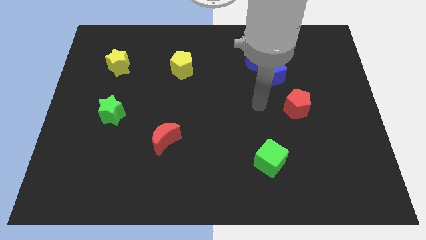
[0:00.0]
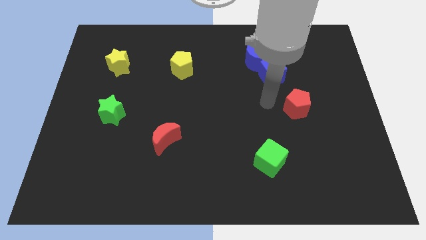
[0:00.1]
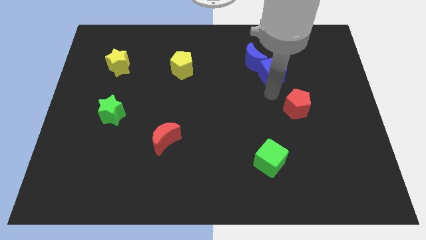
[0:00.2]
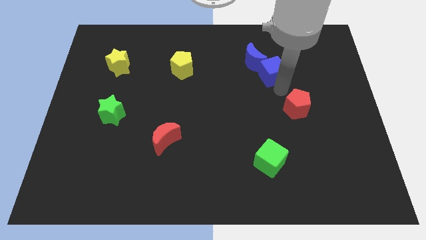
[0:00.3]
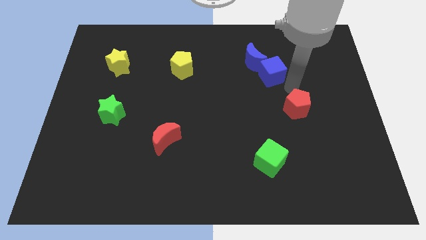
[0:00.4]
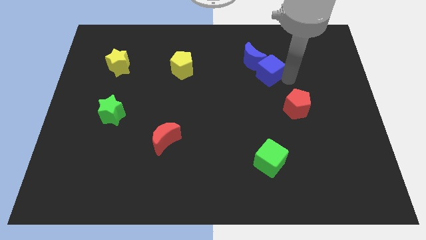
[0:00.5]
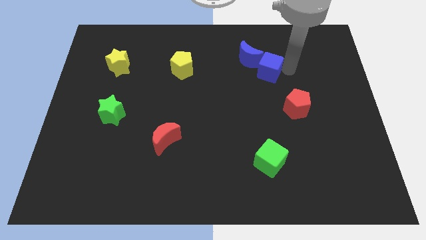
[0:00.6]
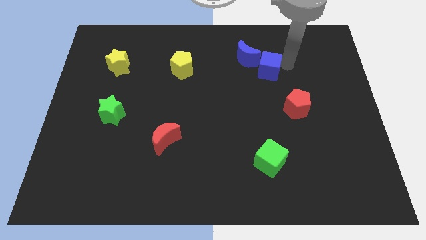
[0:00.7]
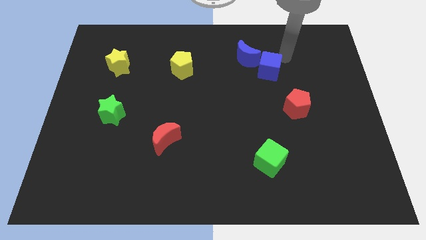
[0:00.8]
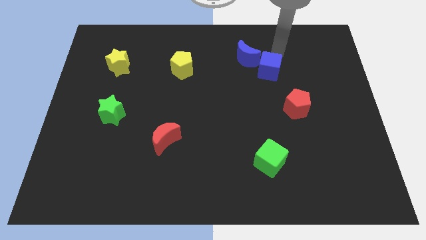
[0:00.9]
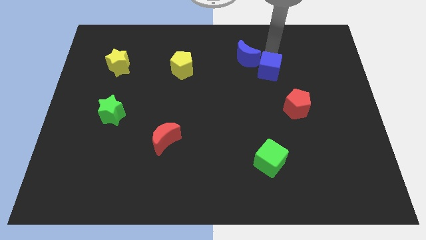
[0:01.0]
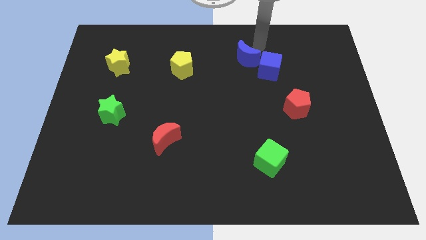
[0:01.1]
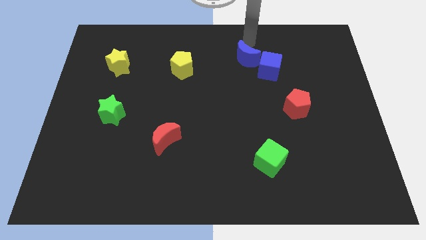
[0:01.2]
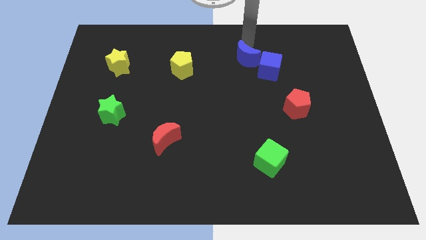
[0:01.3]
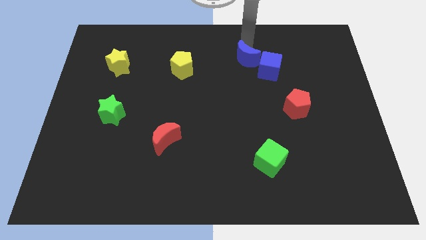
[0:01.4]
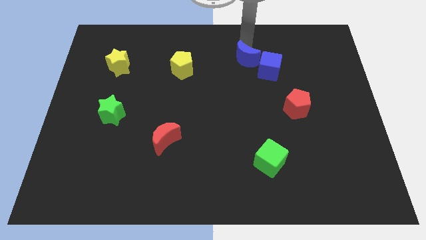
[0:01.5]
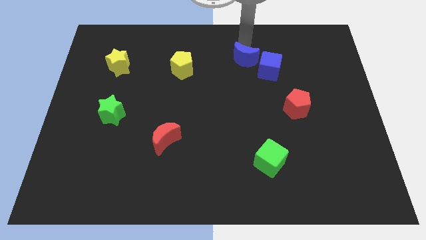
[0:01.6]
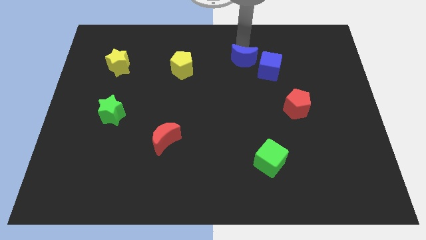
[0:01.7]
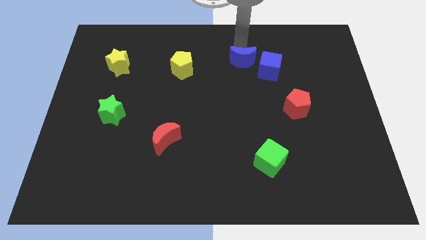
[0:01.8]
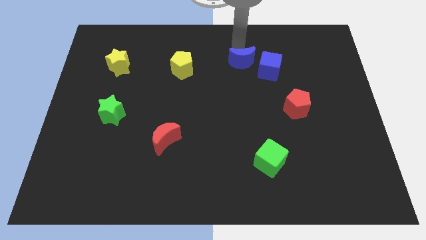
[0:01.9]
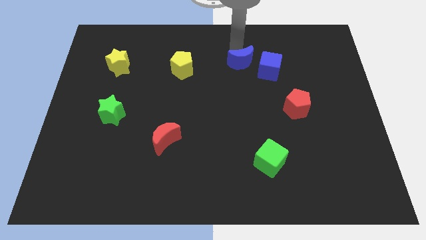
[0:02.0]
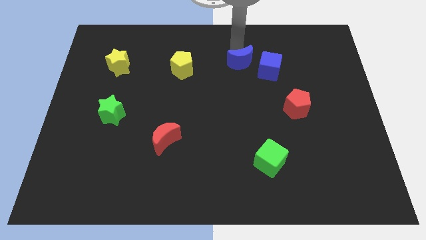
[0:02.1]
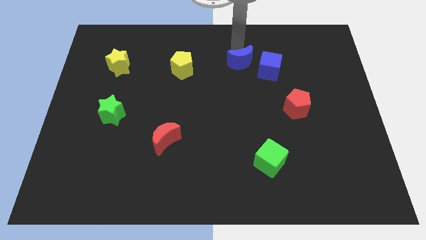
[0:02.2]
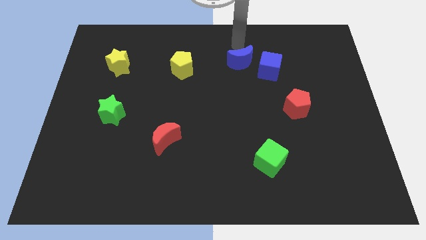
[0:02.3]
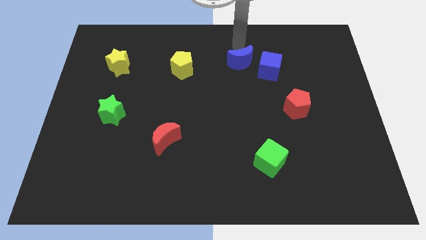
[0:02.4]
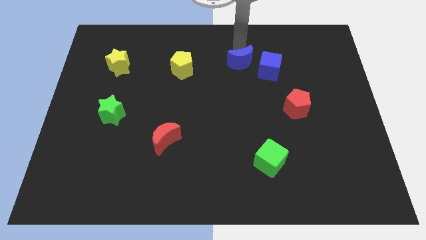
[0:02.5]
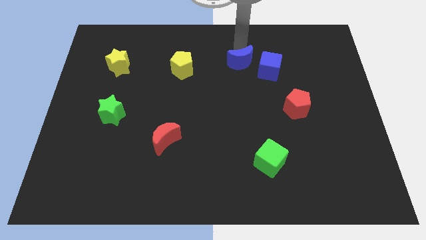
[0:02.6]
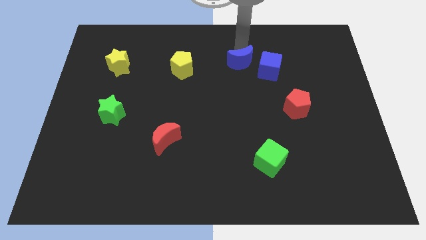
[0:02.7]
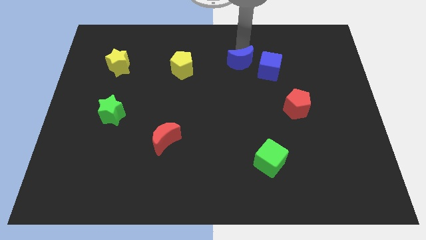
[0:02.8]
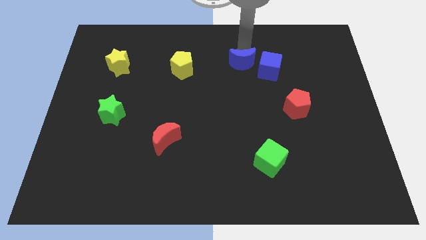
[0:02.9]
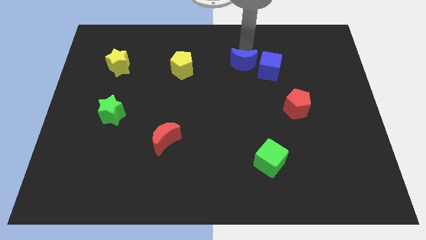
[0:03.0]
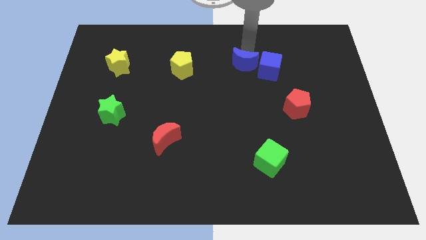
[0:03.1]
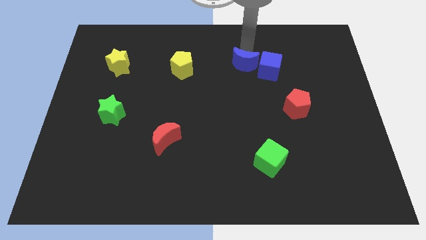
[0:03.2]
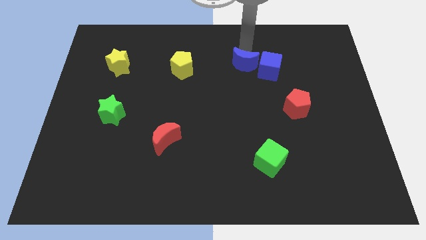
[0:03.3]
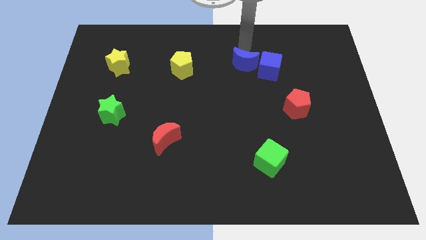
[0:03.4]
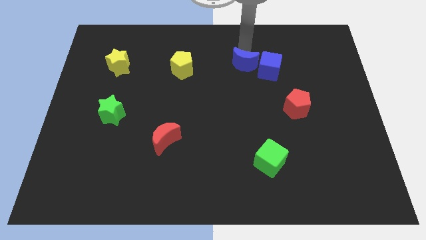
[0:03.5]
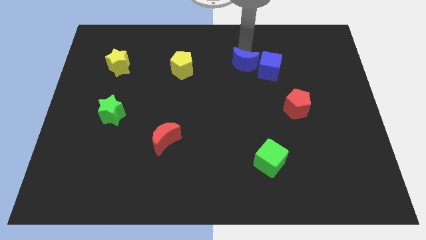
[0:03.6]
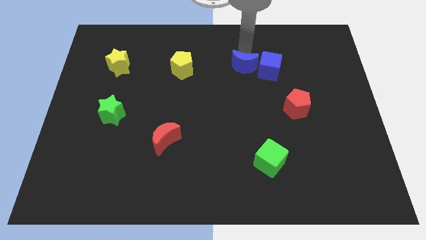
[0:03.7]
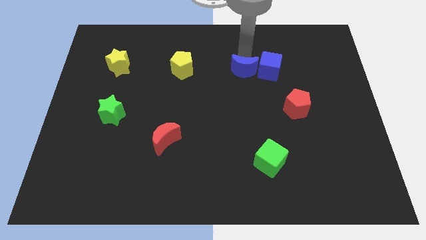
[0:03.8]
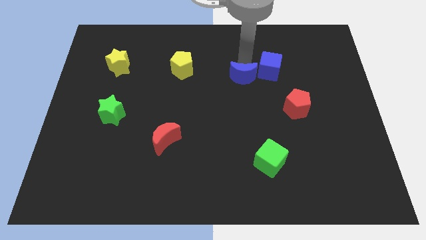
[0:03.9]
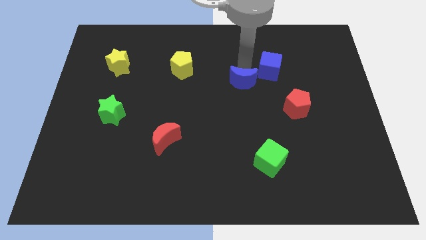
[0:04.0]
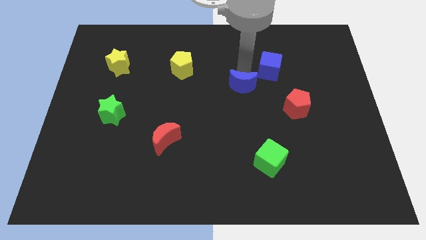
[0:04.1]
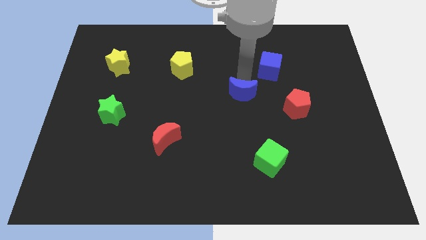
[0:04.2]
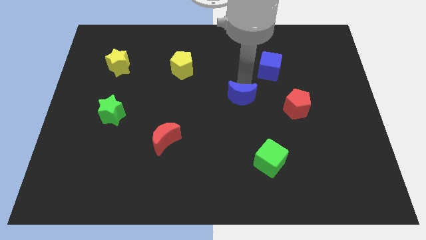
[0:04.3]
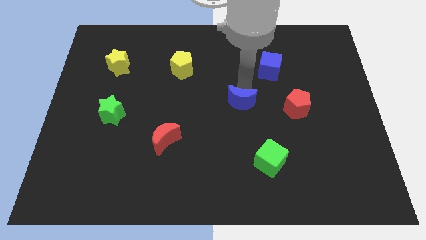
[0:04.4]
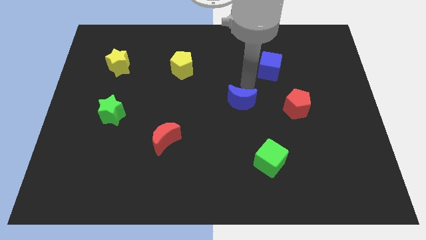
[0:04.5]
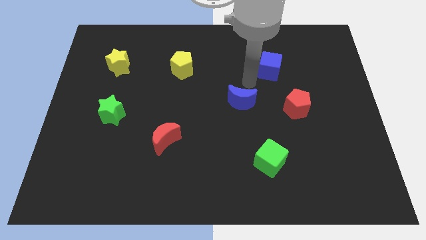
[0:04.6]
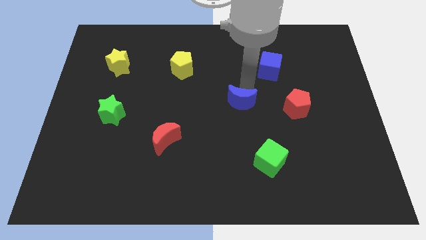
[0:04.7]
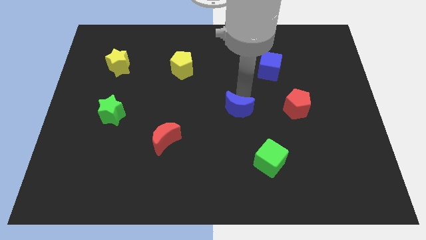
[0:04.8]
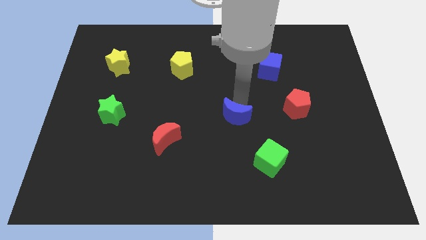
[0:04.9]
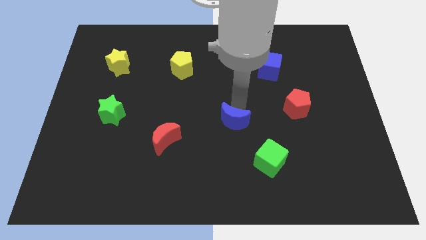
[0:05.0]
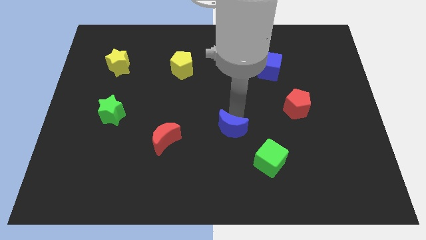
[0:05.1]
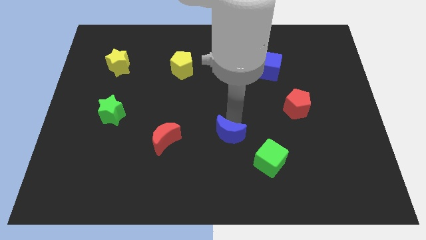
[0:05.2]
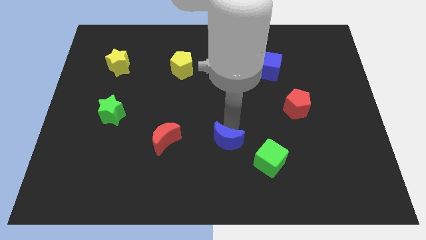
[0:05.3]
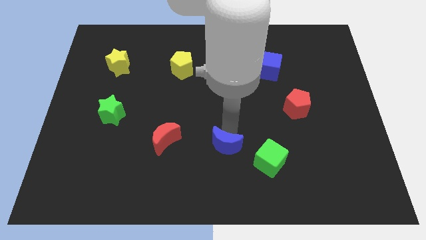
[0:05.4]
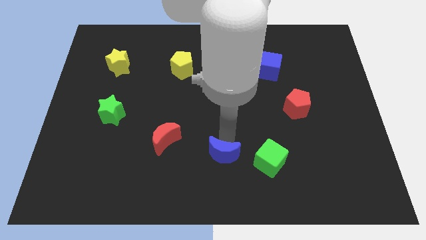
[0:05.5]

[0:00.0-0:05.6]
put the blue moon to the bottom

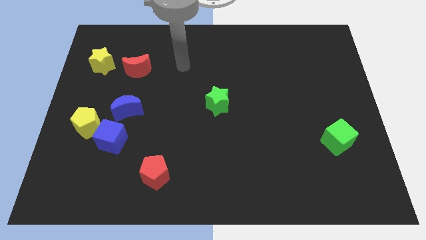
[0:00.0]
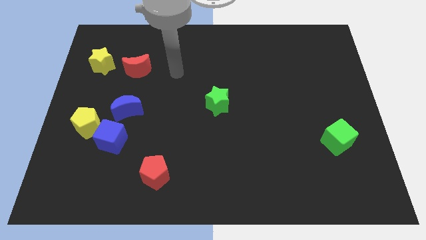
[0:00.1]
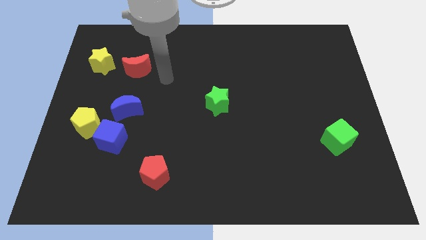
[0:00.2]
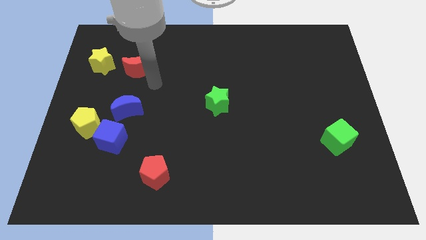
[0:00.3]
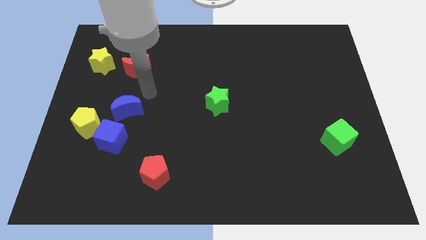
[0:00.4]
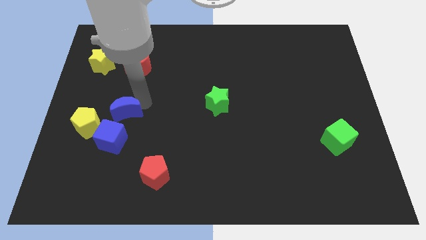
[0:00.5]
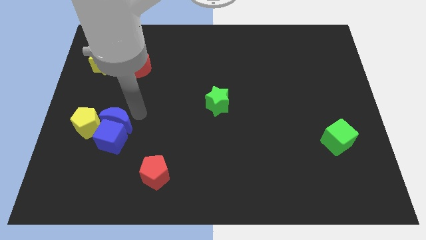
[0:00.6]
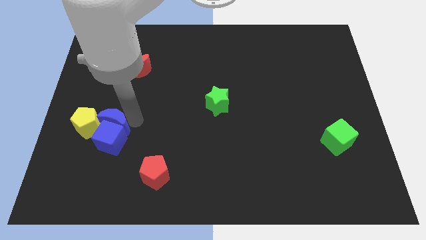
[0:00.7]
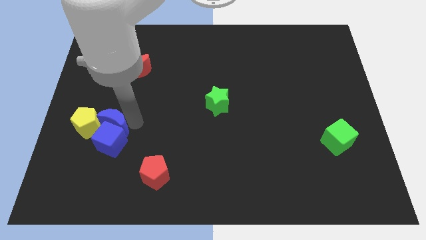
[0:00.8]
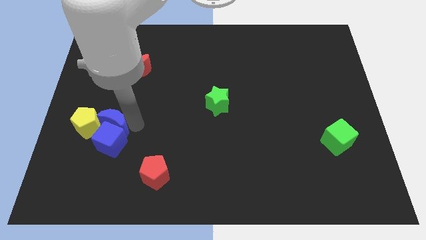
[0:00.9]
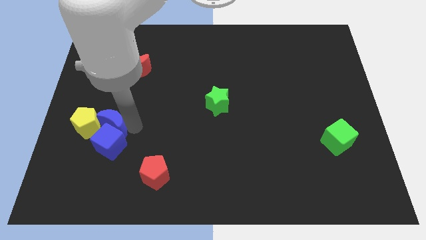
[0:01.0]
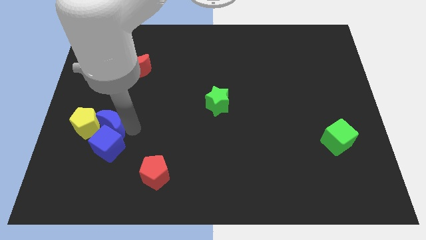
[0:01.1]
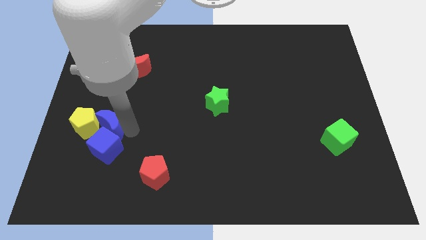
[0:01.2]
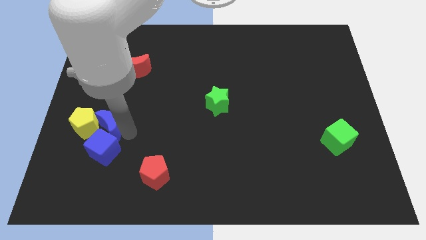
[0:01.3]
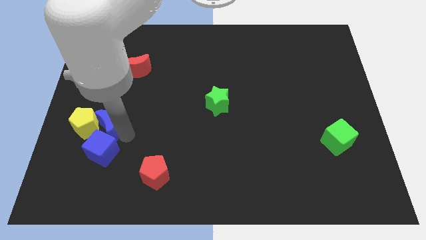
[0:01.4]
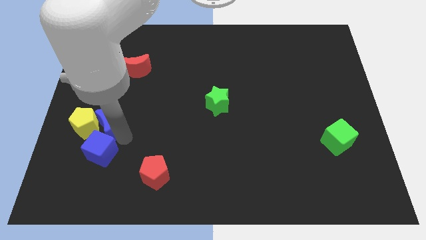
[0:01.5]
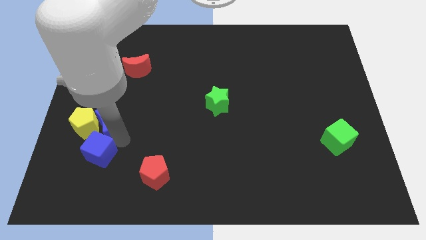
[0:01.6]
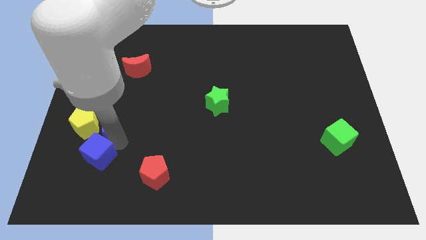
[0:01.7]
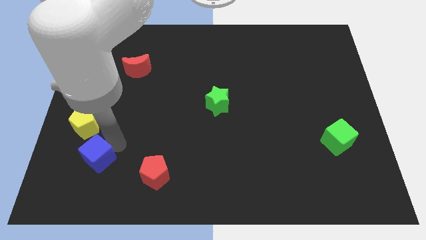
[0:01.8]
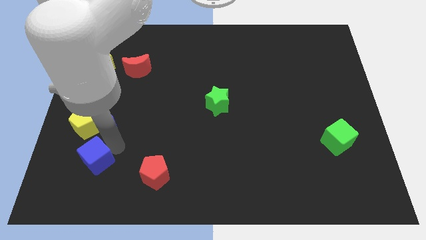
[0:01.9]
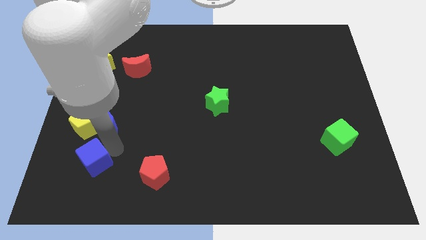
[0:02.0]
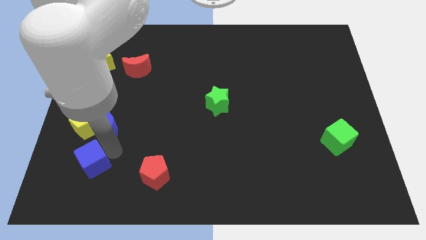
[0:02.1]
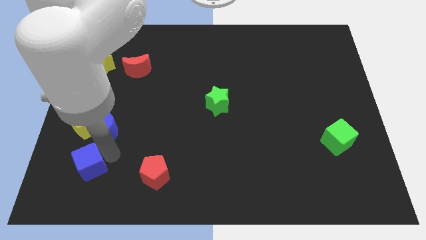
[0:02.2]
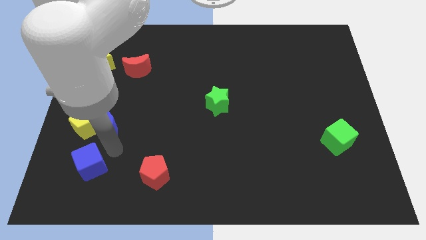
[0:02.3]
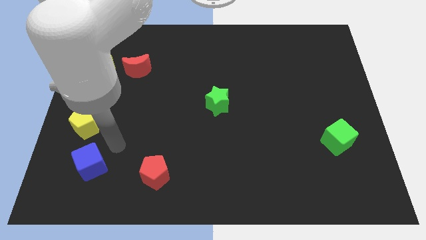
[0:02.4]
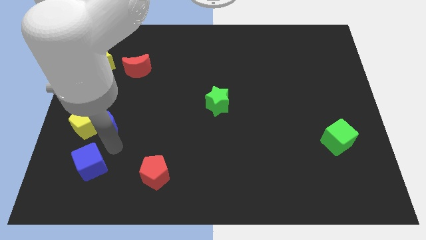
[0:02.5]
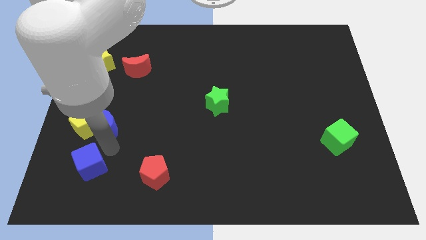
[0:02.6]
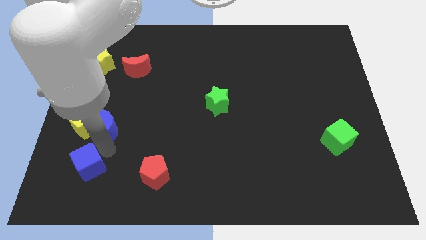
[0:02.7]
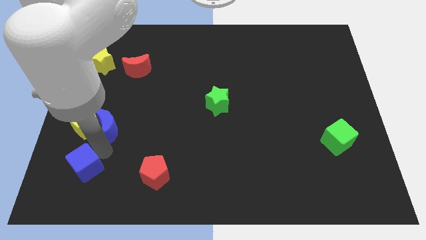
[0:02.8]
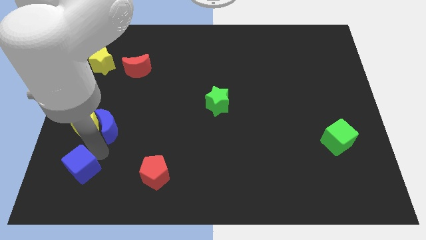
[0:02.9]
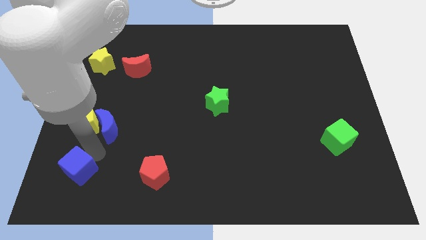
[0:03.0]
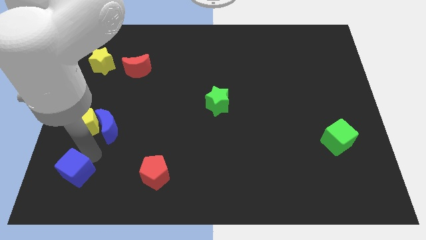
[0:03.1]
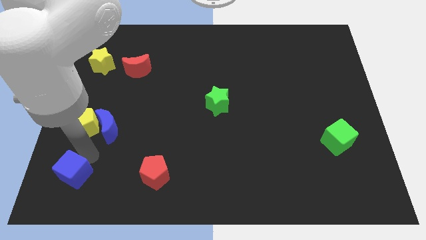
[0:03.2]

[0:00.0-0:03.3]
slide the blue cube to the bottom left corner

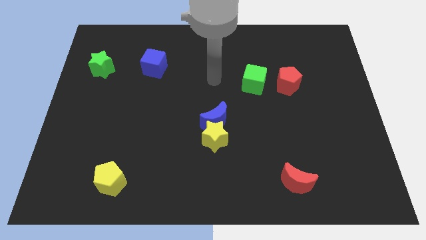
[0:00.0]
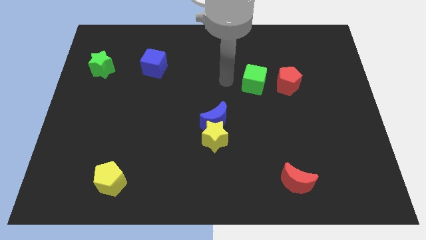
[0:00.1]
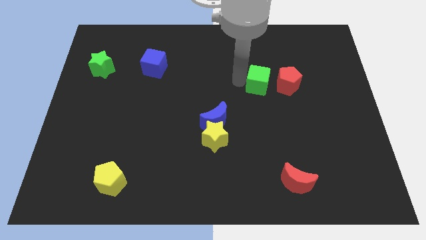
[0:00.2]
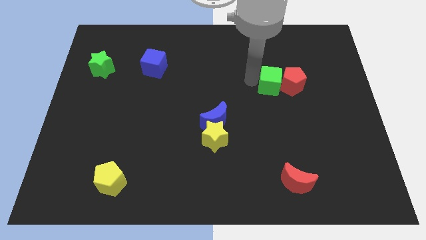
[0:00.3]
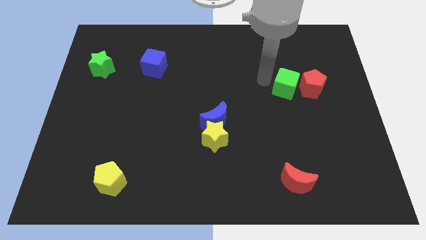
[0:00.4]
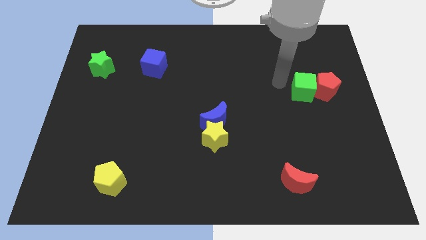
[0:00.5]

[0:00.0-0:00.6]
push the red pentagon to the center right
